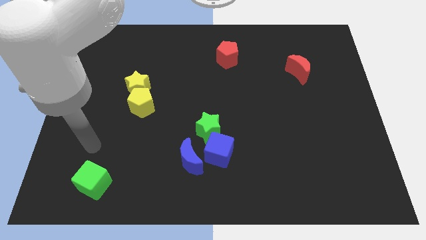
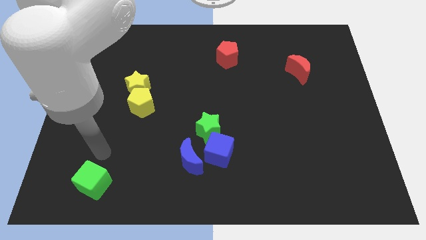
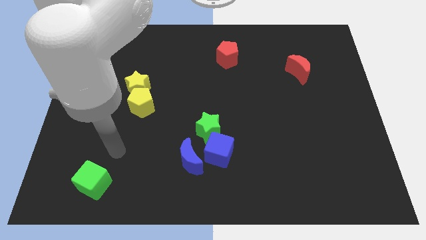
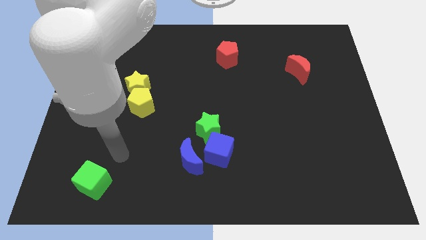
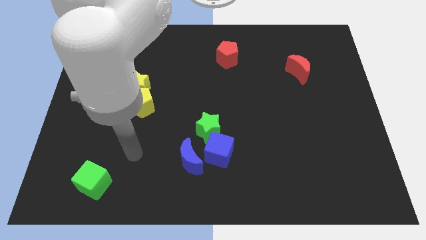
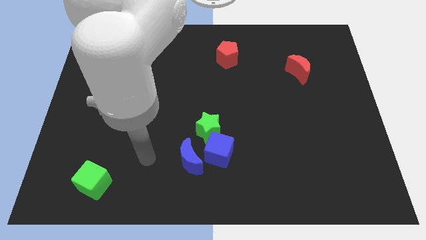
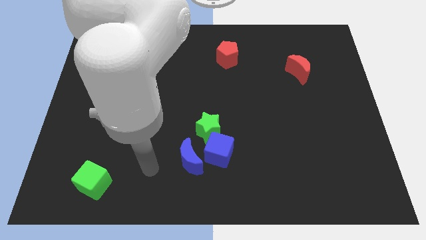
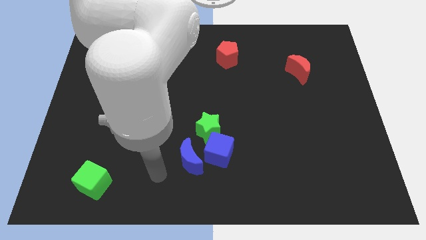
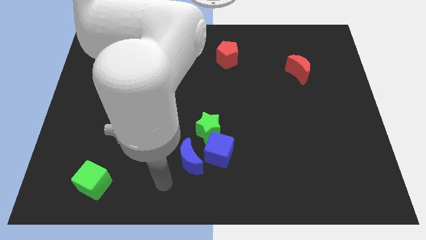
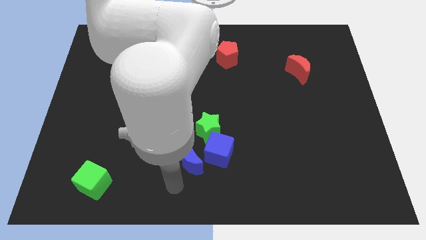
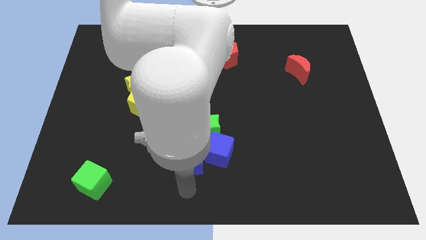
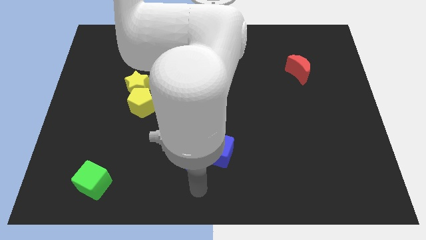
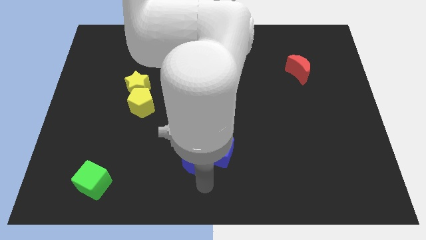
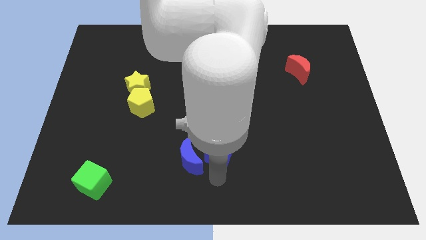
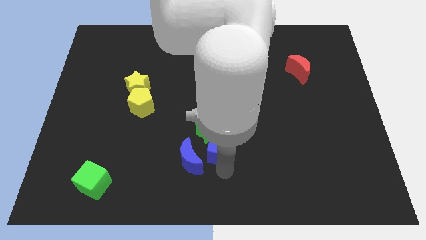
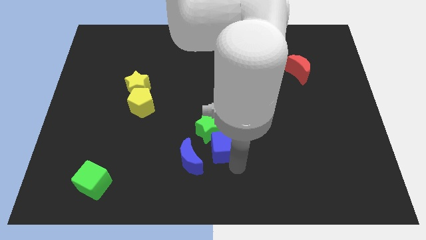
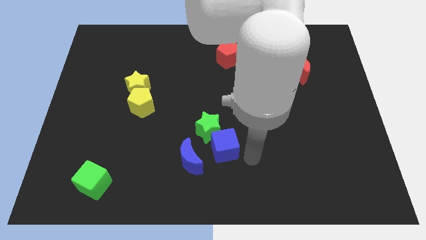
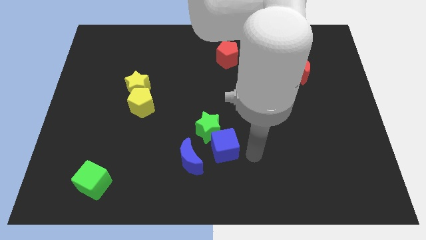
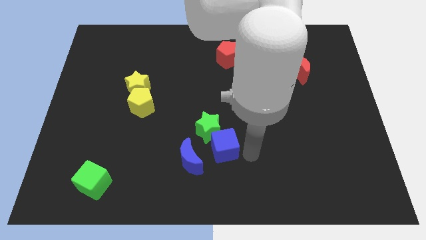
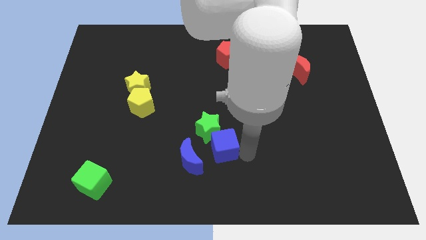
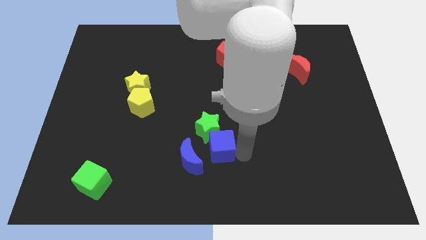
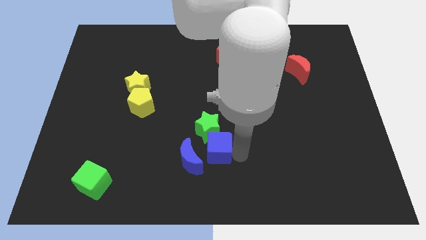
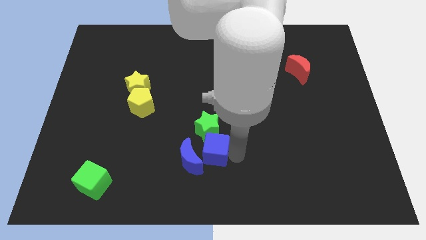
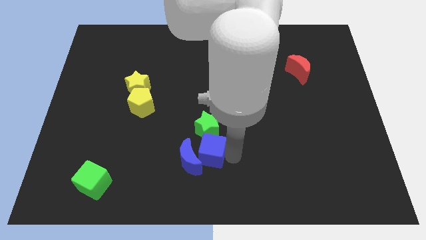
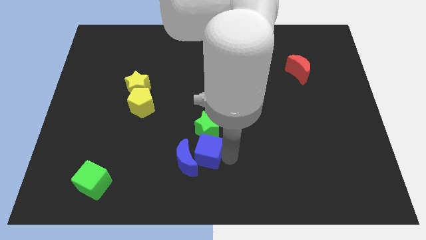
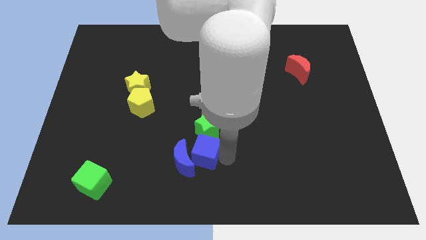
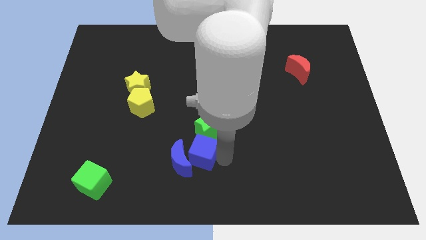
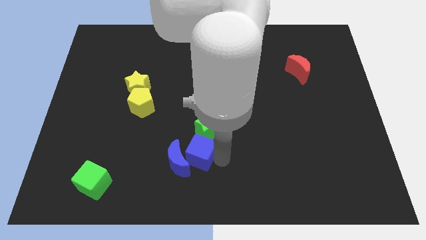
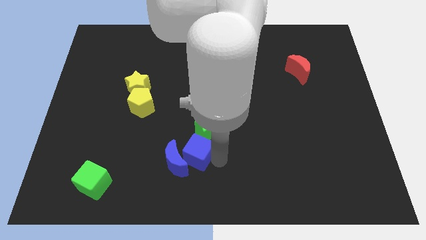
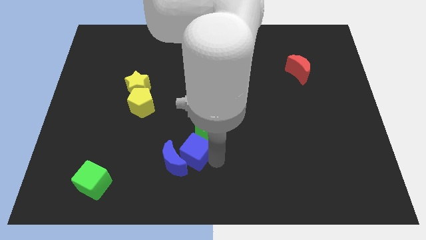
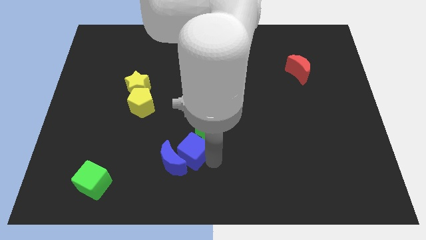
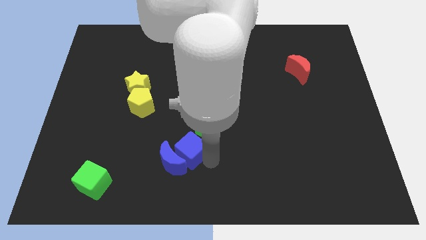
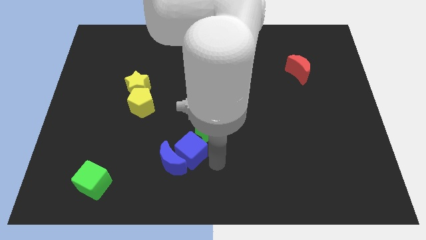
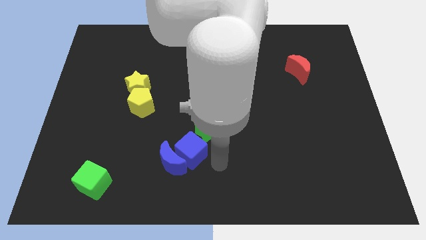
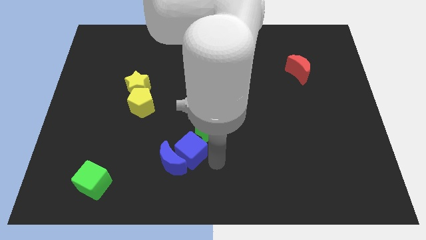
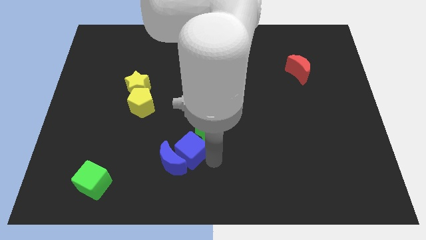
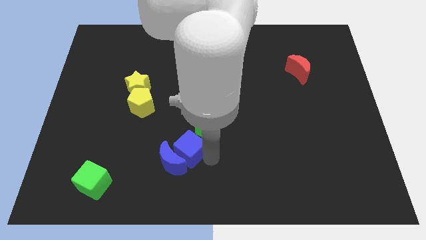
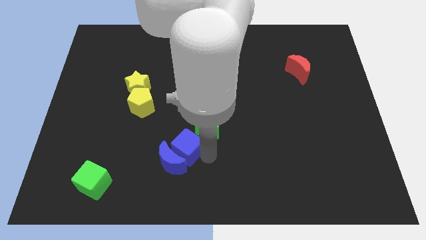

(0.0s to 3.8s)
move the blue cube a bit left

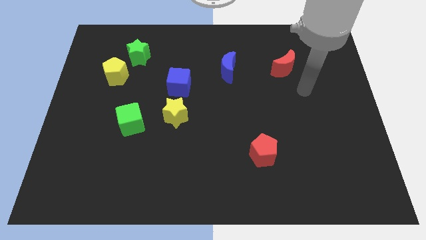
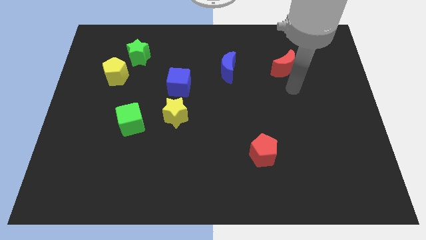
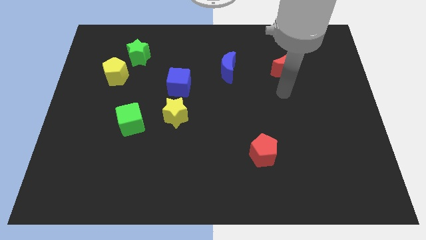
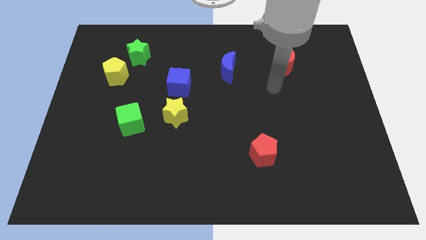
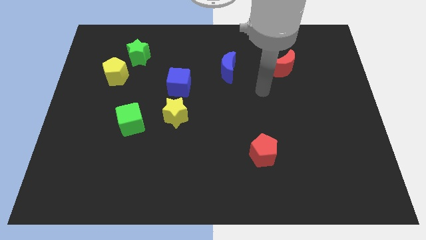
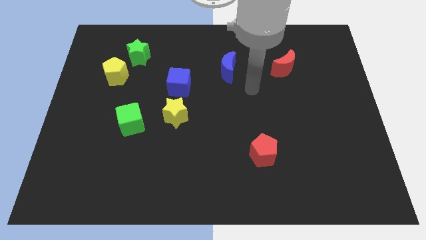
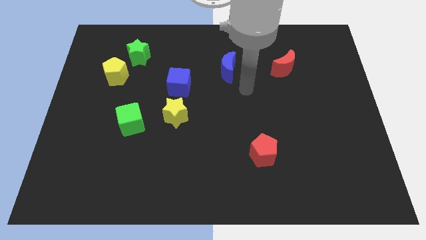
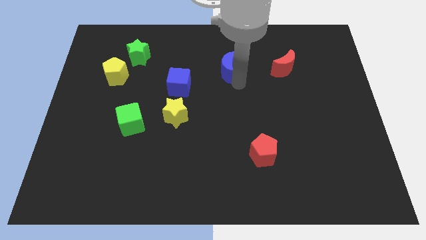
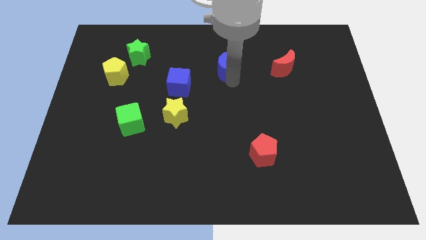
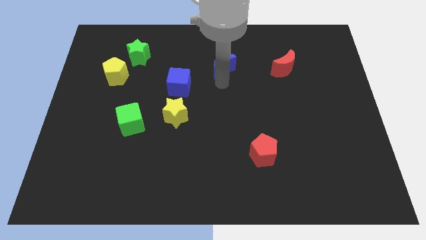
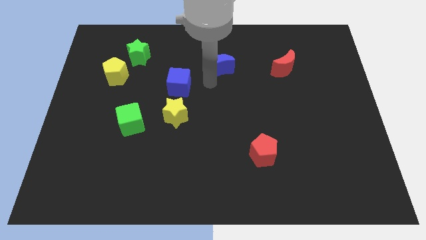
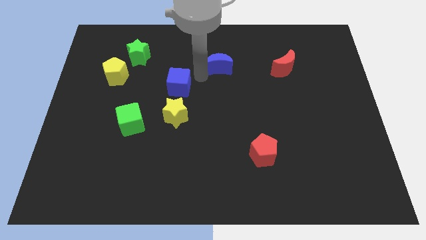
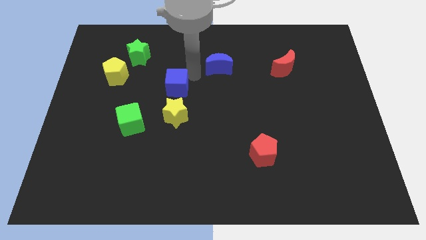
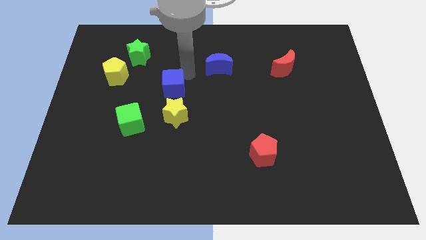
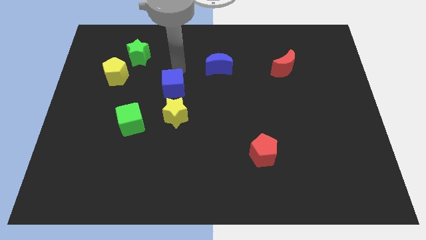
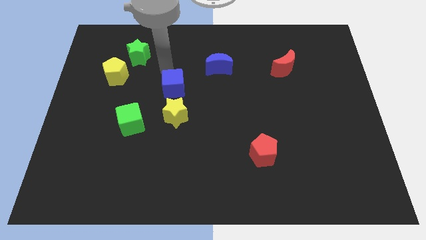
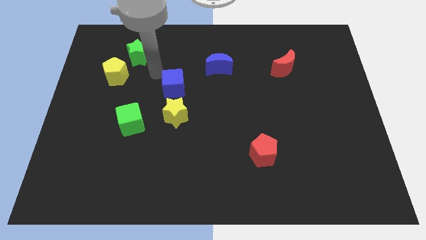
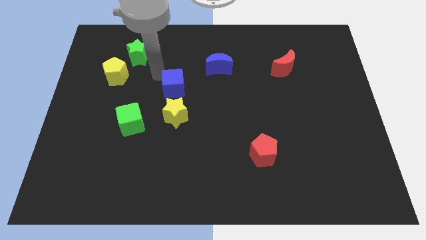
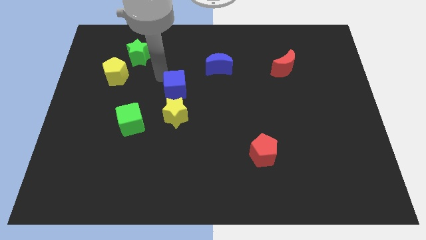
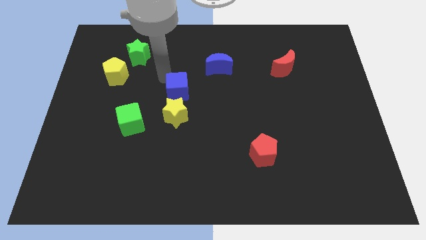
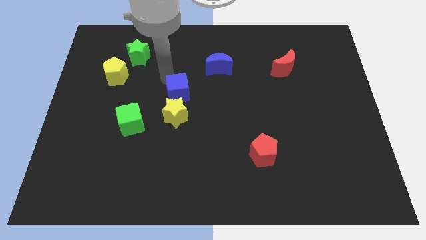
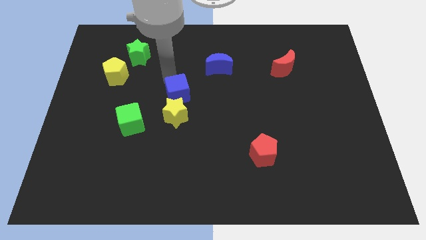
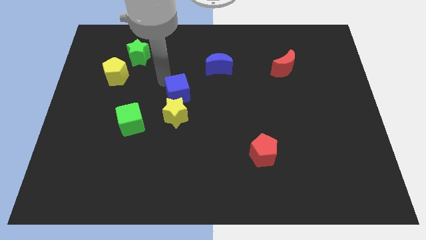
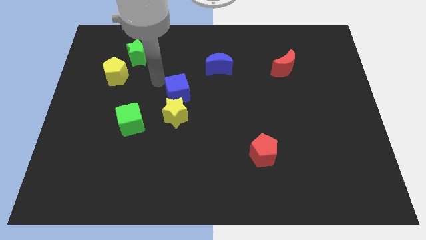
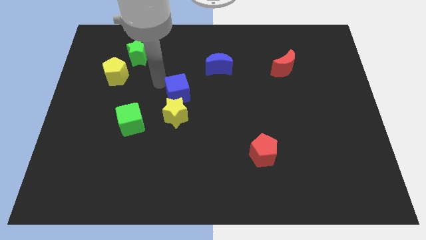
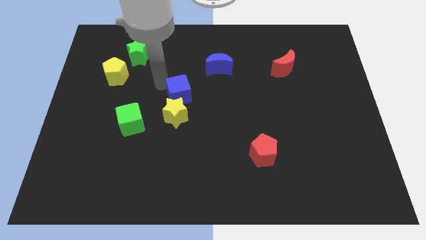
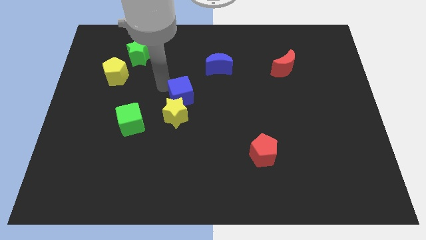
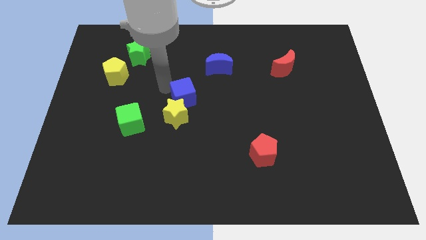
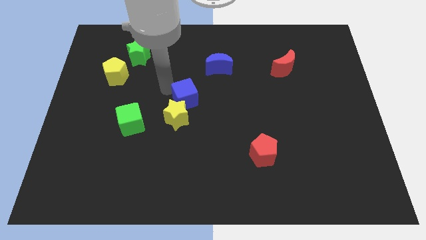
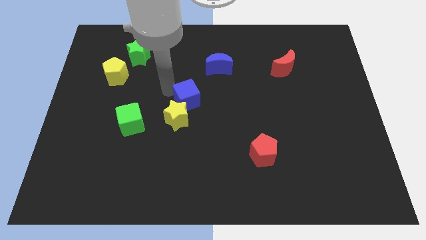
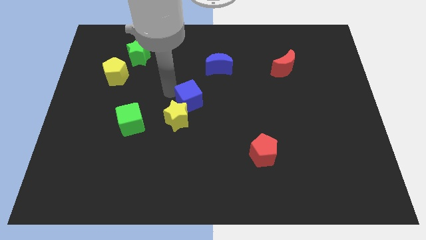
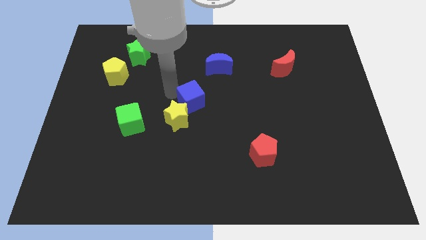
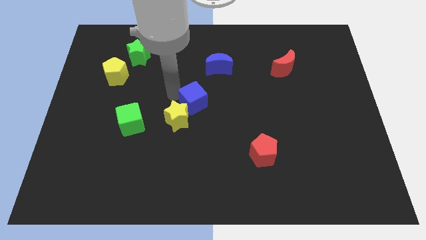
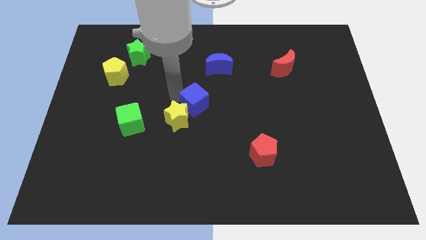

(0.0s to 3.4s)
slightly move the blue cube diagonally down and right

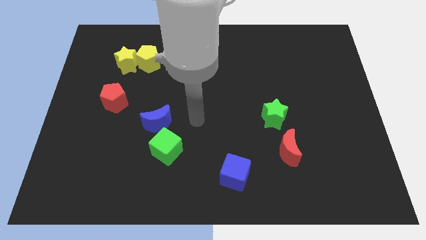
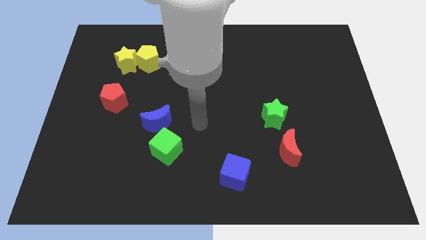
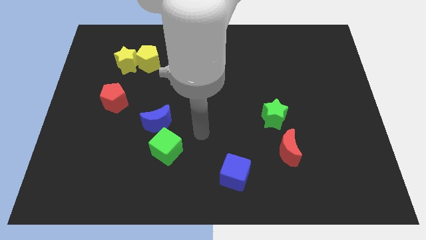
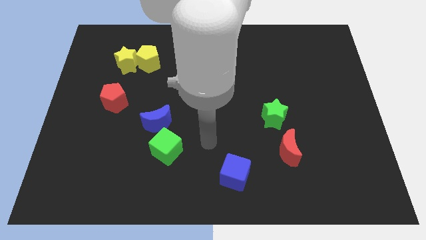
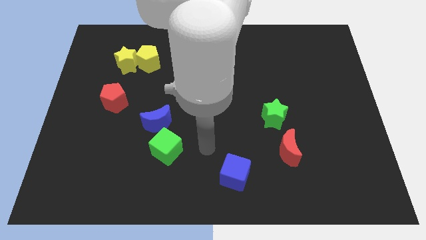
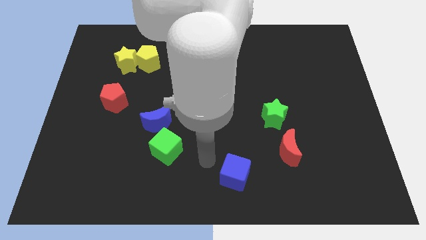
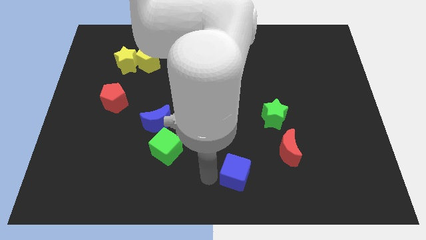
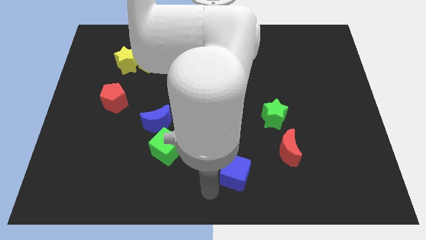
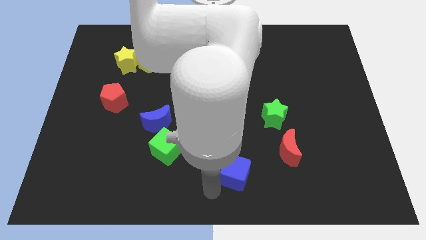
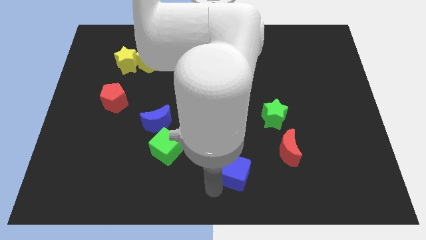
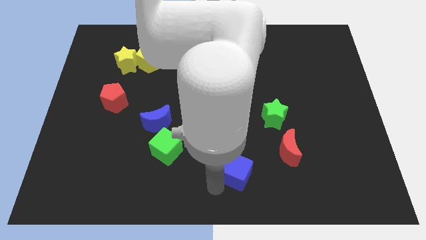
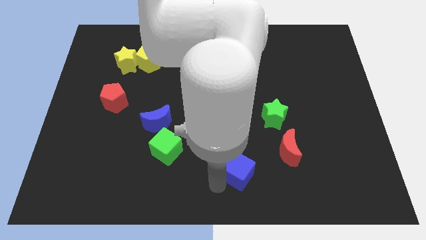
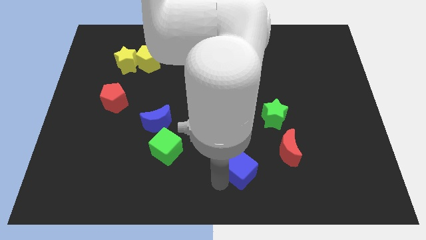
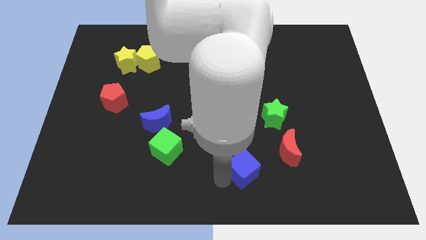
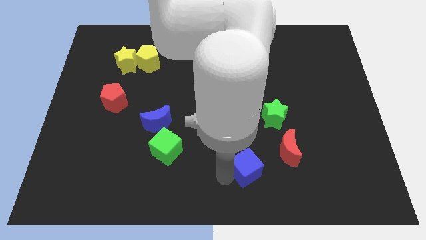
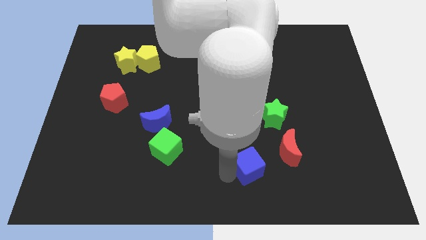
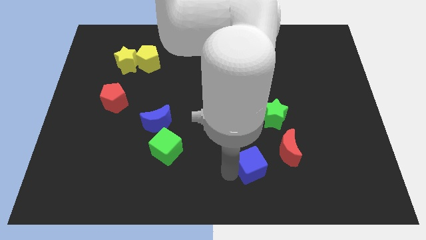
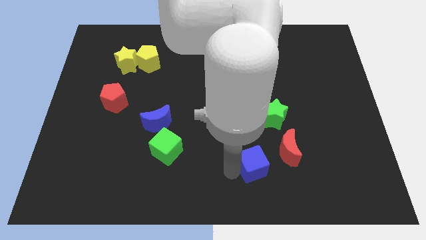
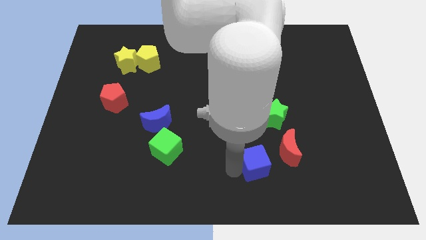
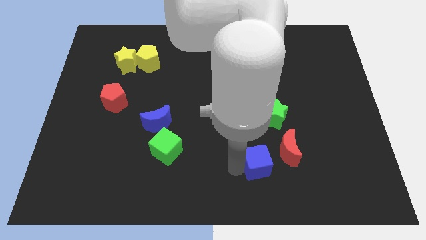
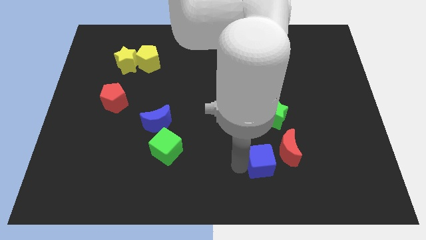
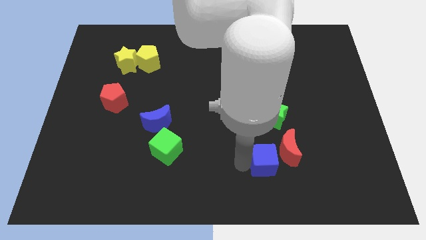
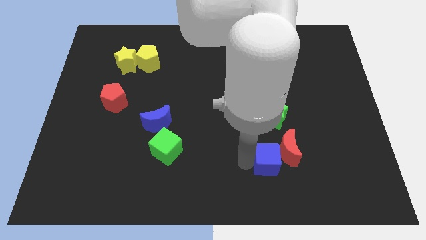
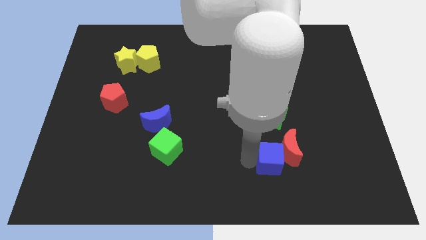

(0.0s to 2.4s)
slightly slide the blue cube right
